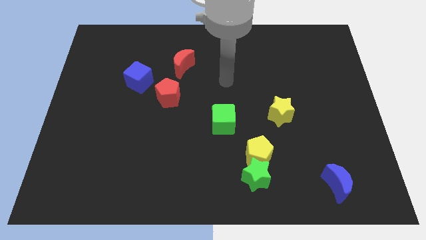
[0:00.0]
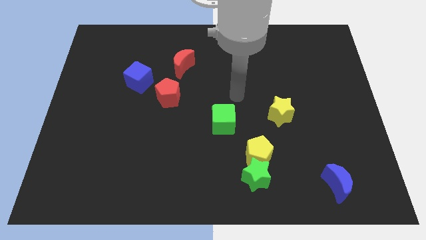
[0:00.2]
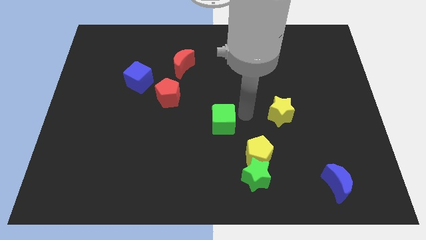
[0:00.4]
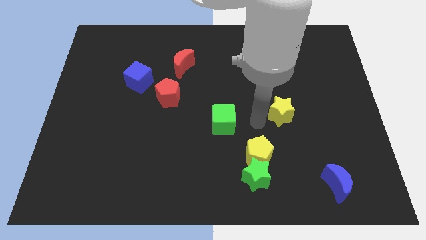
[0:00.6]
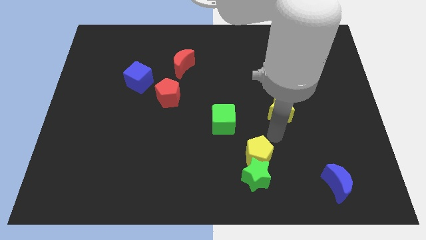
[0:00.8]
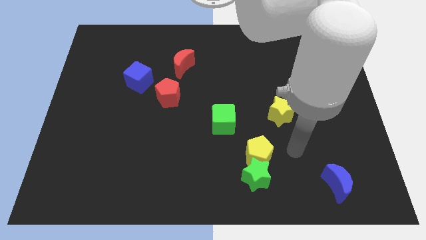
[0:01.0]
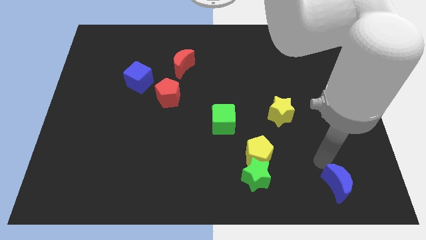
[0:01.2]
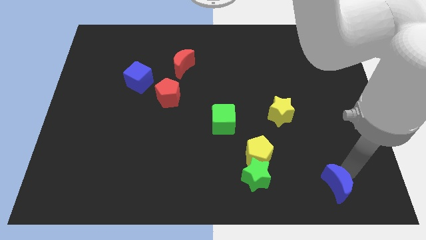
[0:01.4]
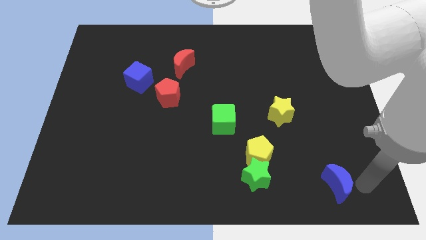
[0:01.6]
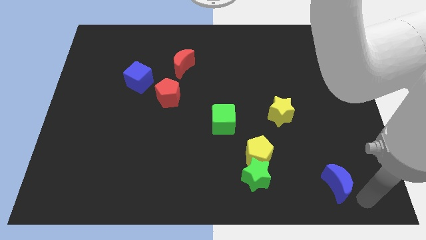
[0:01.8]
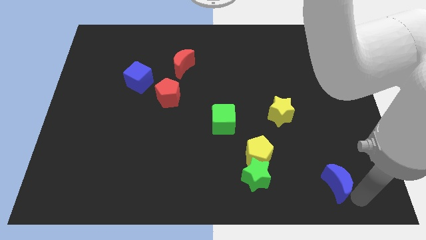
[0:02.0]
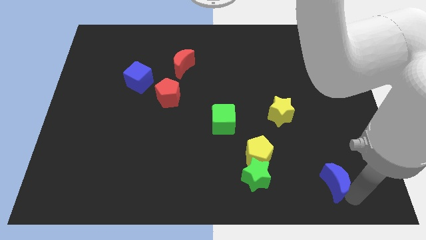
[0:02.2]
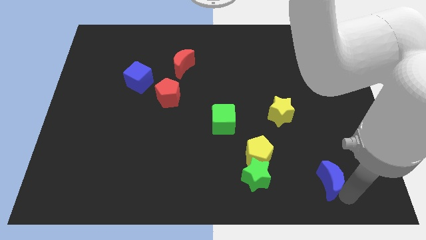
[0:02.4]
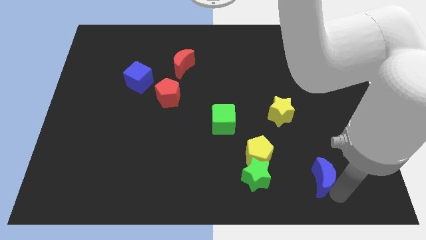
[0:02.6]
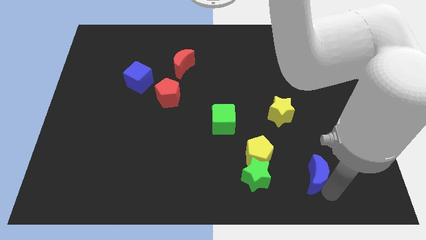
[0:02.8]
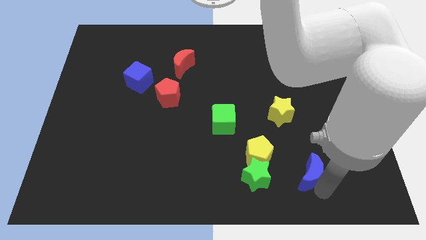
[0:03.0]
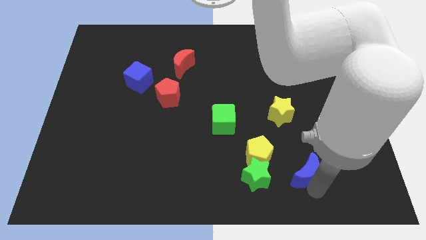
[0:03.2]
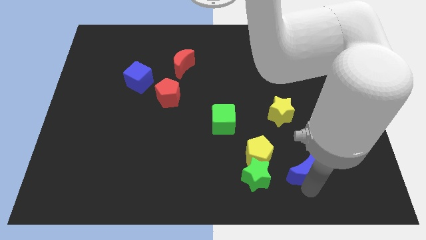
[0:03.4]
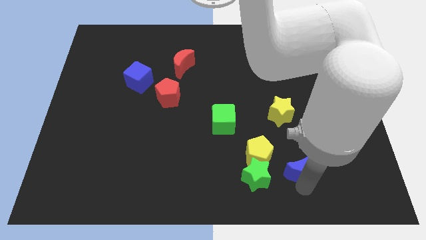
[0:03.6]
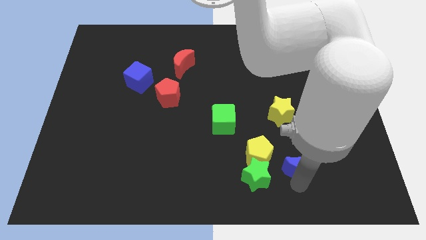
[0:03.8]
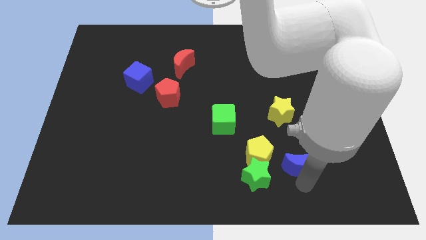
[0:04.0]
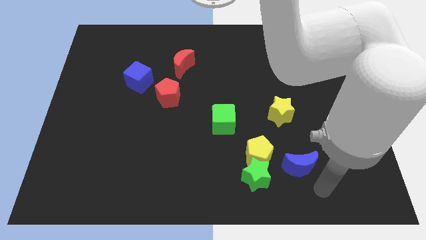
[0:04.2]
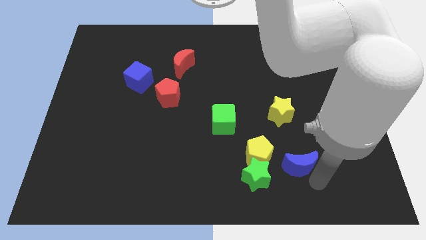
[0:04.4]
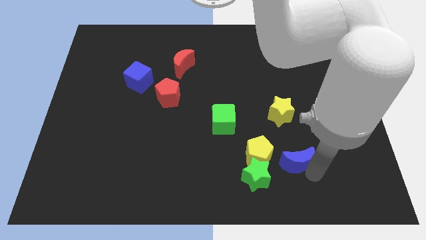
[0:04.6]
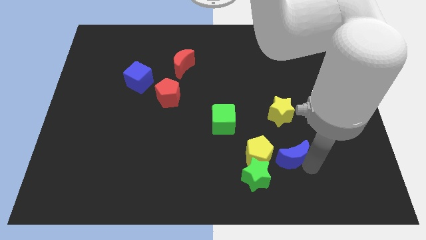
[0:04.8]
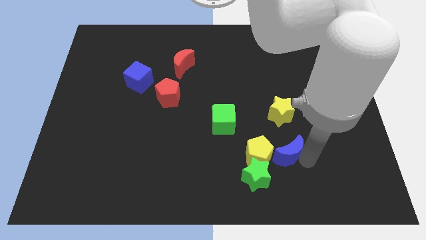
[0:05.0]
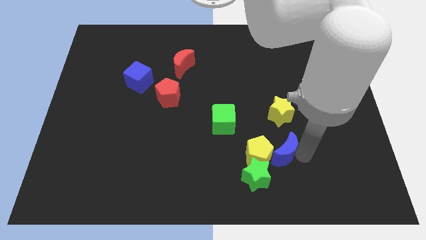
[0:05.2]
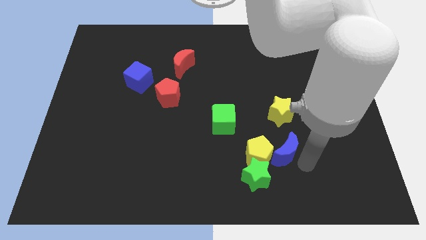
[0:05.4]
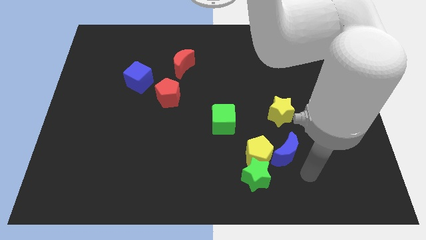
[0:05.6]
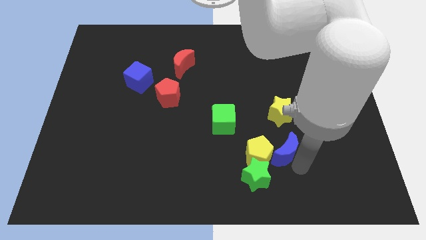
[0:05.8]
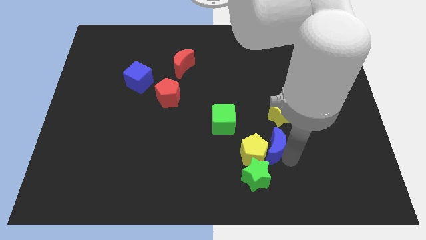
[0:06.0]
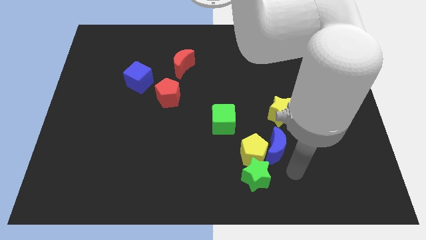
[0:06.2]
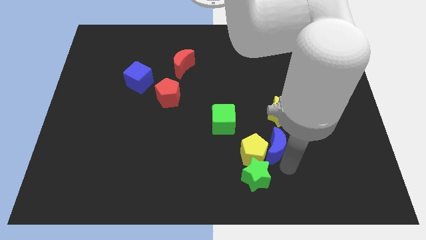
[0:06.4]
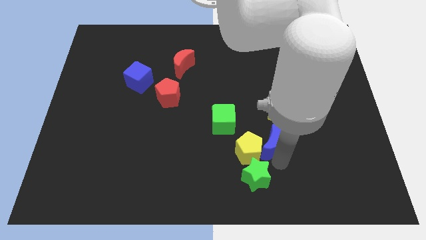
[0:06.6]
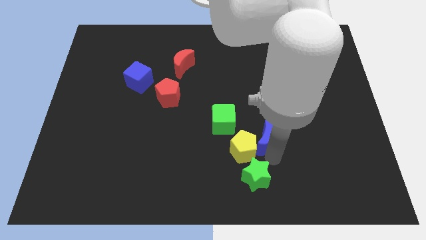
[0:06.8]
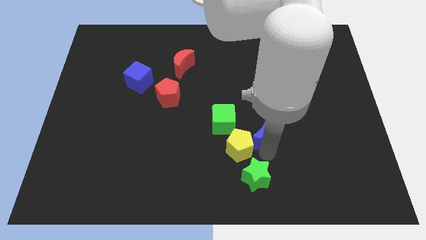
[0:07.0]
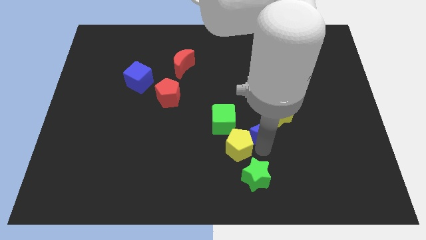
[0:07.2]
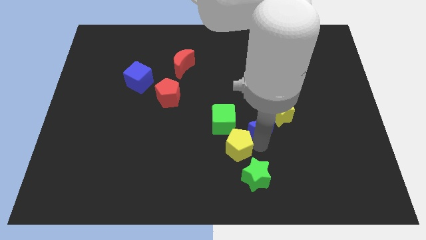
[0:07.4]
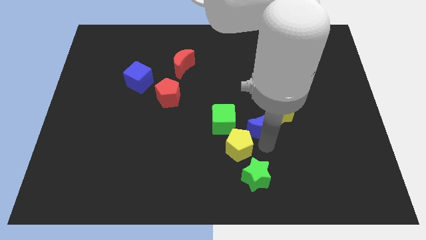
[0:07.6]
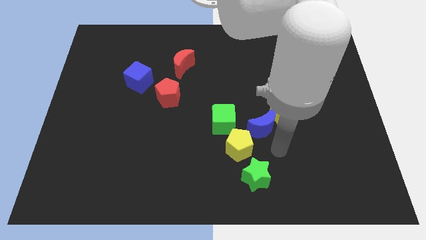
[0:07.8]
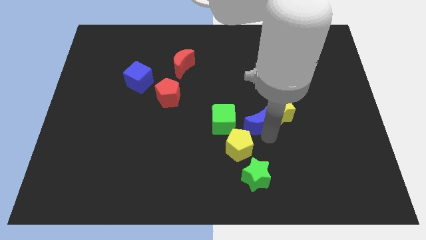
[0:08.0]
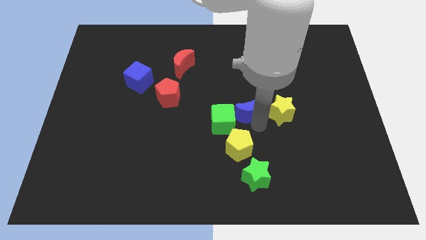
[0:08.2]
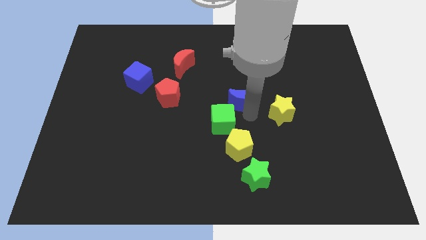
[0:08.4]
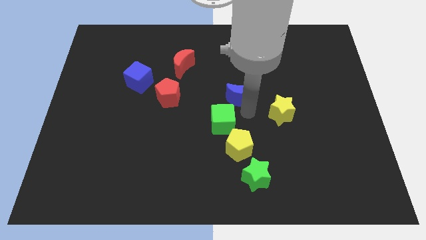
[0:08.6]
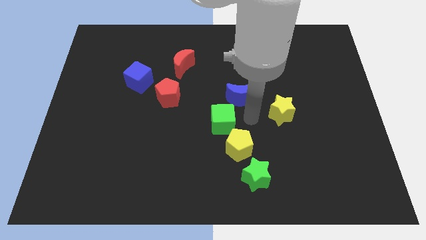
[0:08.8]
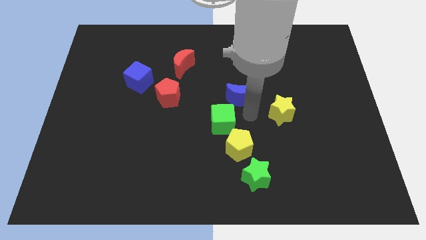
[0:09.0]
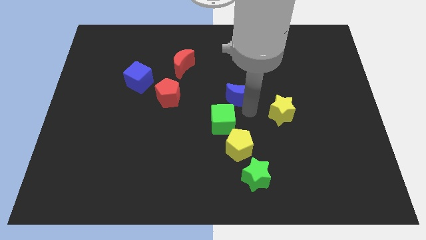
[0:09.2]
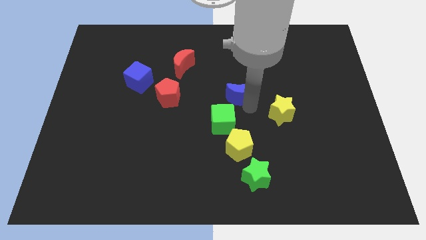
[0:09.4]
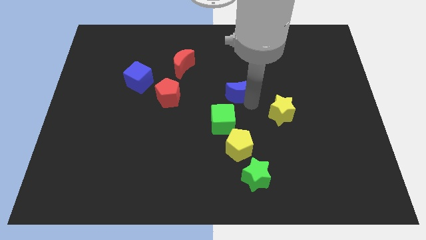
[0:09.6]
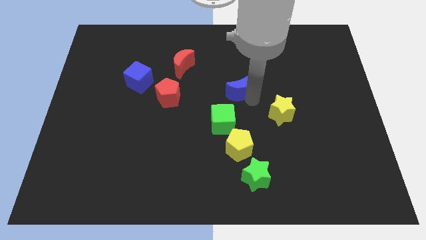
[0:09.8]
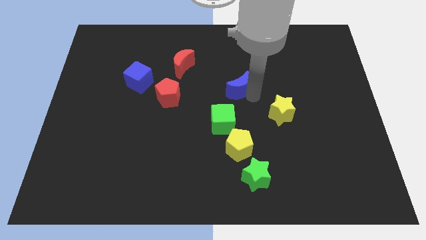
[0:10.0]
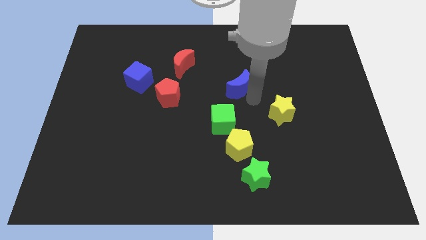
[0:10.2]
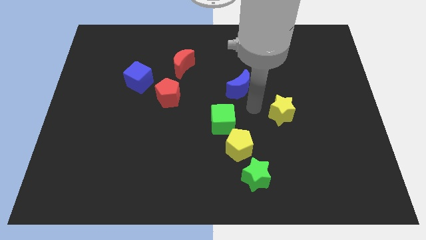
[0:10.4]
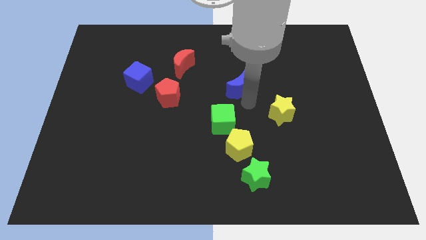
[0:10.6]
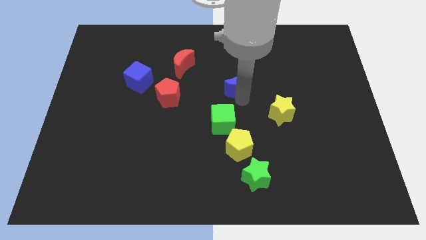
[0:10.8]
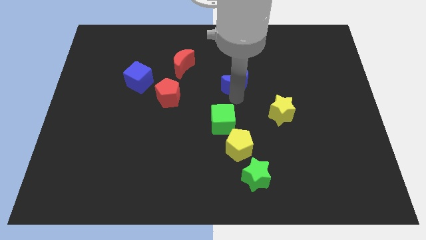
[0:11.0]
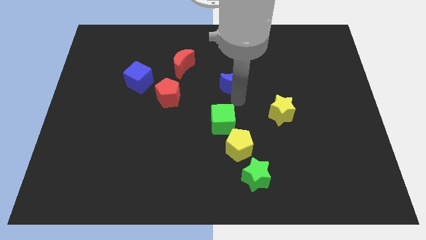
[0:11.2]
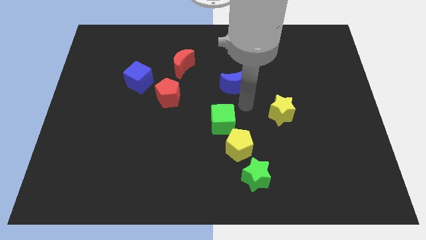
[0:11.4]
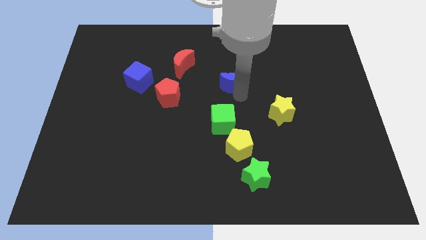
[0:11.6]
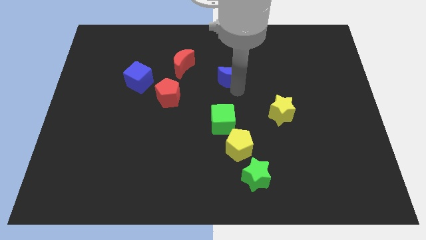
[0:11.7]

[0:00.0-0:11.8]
slide the blue moon right of the red moon

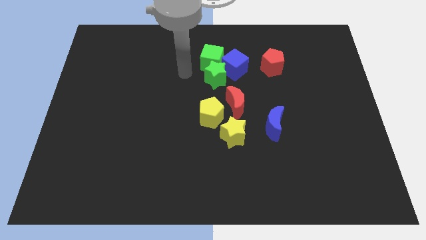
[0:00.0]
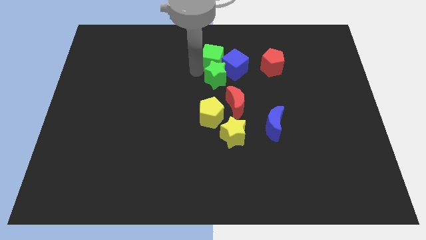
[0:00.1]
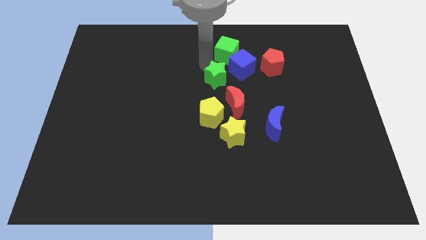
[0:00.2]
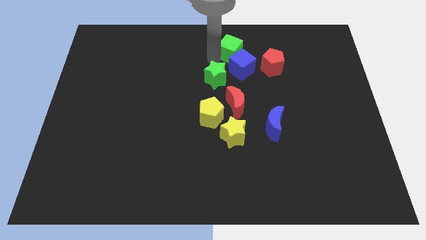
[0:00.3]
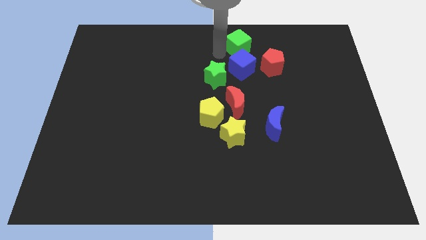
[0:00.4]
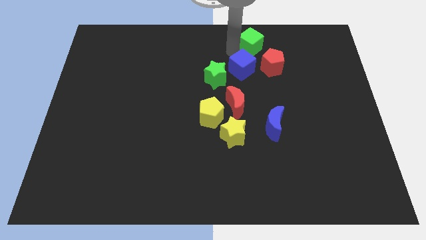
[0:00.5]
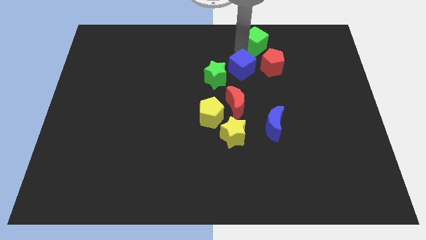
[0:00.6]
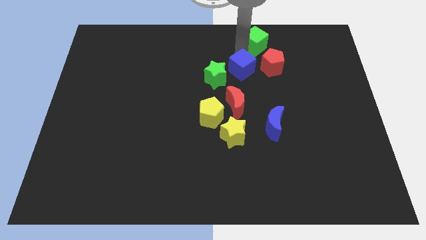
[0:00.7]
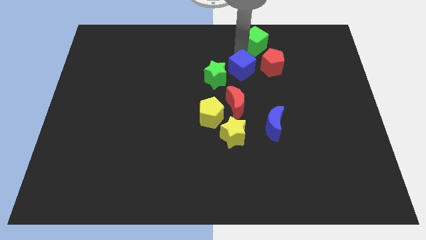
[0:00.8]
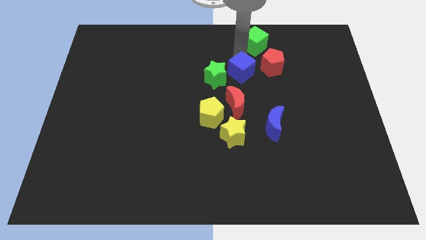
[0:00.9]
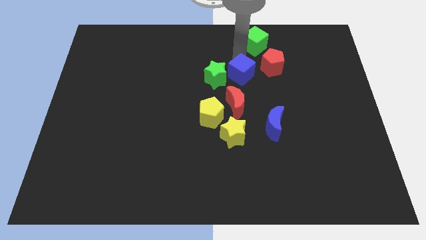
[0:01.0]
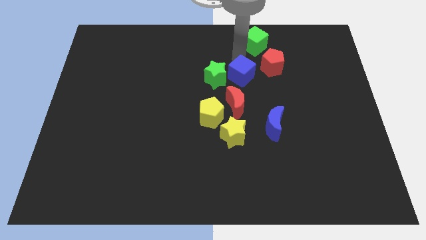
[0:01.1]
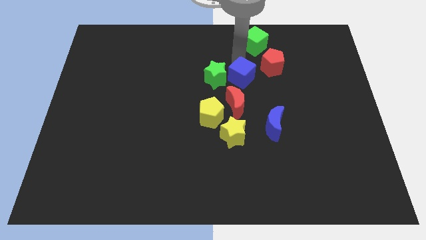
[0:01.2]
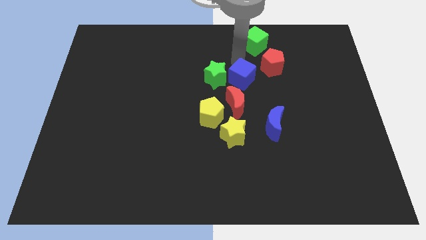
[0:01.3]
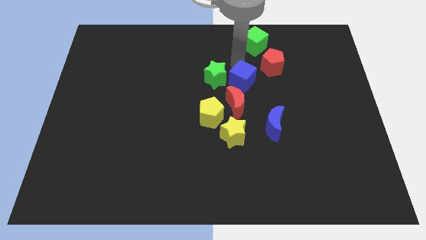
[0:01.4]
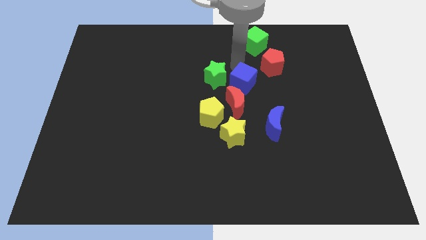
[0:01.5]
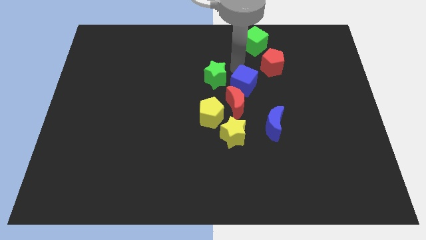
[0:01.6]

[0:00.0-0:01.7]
push the blue cube diagonally up and to the right of the yellow pentagon

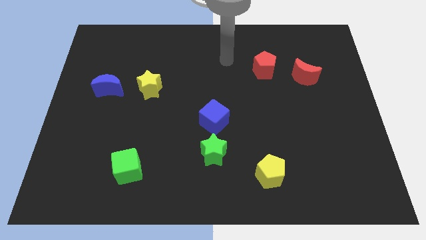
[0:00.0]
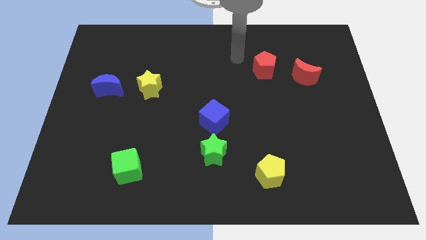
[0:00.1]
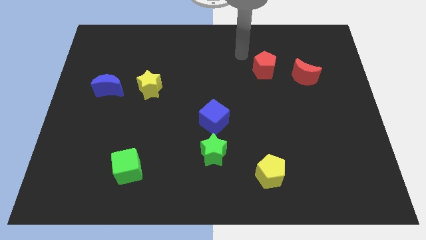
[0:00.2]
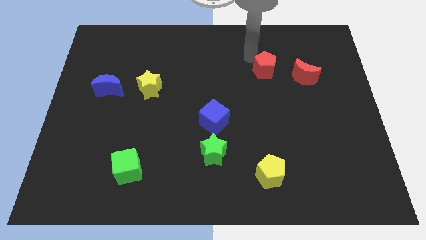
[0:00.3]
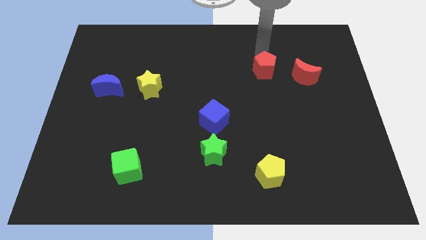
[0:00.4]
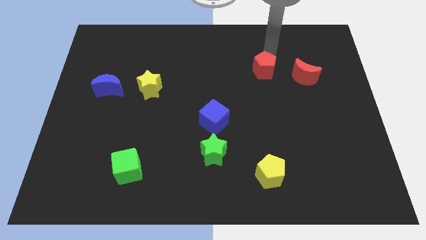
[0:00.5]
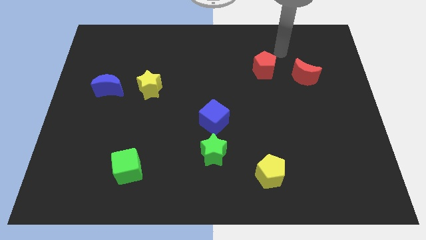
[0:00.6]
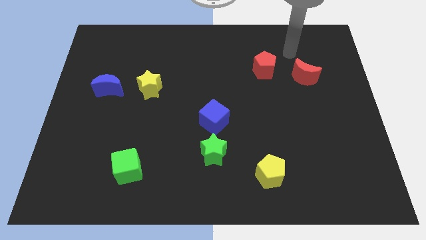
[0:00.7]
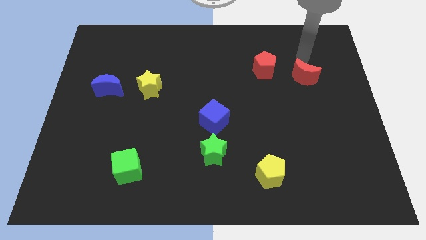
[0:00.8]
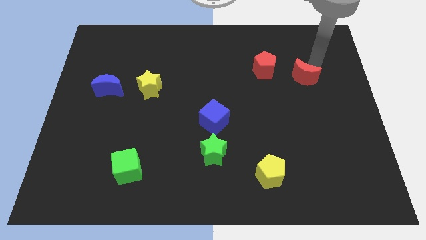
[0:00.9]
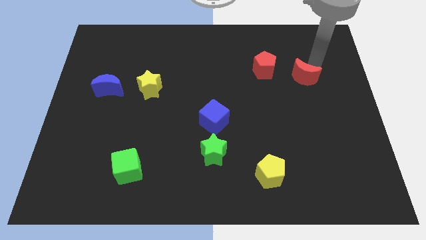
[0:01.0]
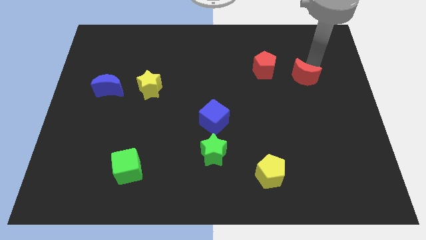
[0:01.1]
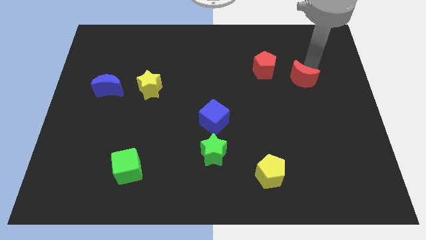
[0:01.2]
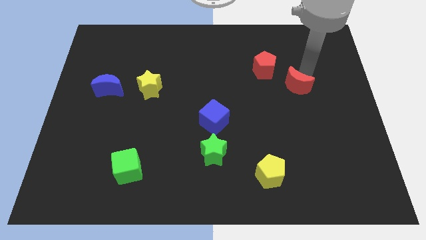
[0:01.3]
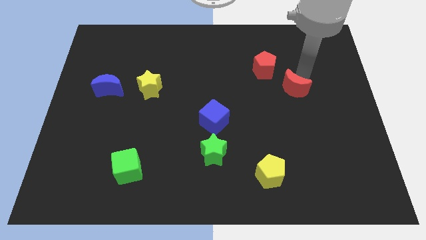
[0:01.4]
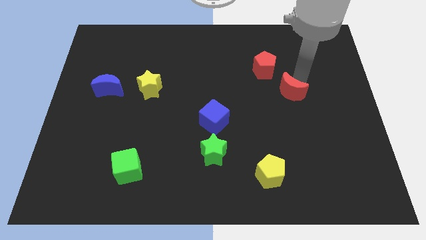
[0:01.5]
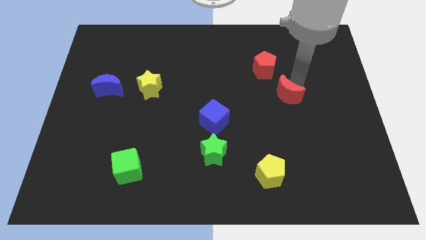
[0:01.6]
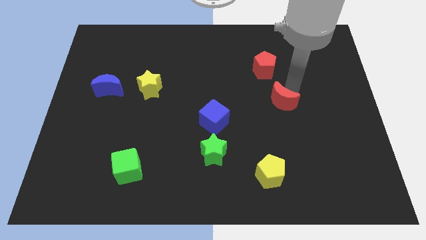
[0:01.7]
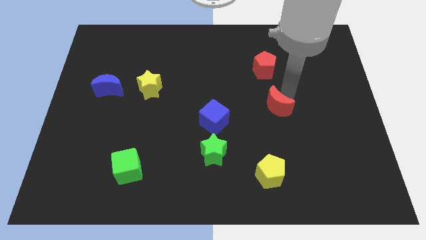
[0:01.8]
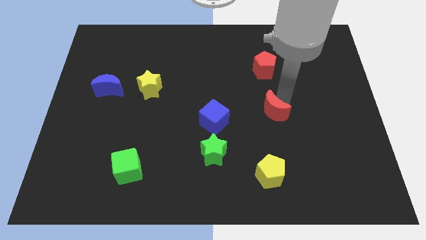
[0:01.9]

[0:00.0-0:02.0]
slide the red moon to the right side of the blue cube
